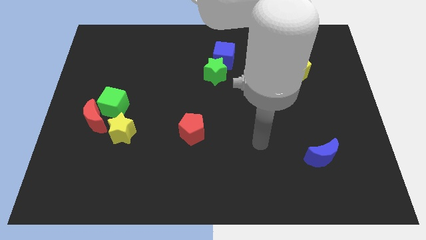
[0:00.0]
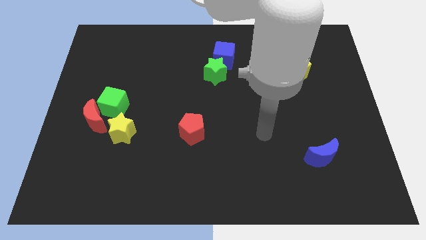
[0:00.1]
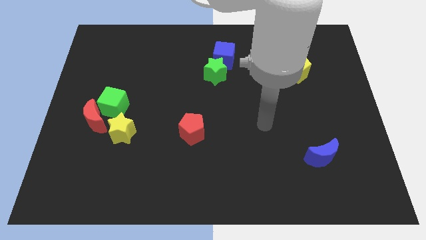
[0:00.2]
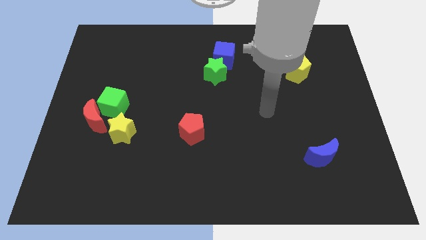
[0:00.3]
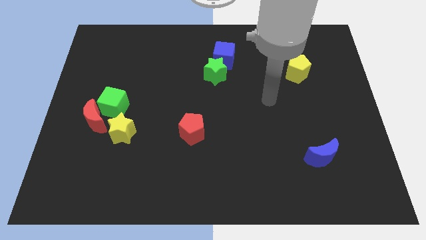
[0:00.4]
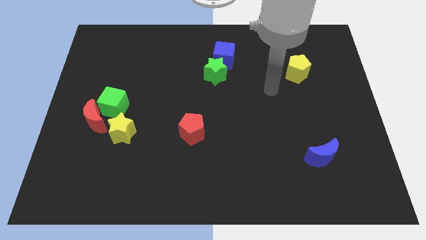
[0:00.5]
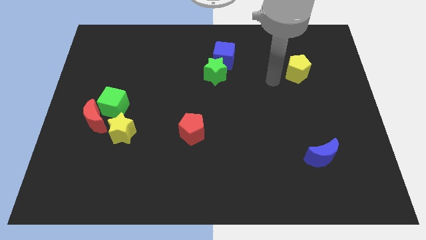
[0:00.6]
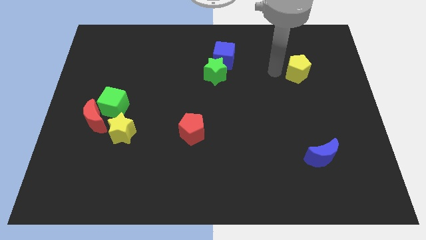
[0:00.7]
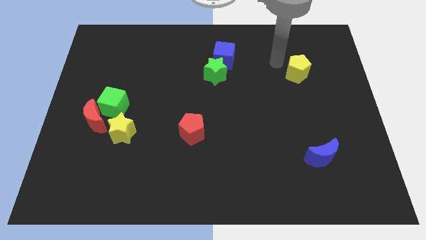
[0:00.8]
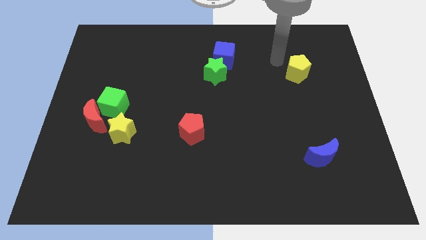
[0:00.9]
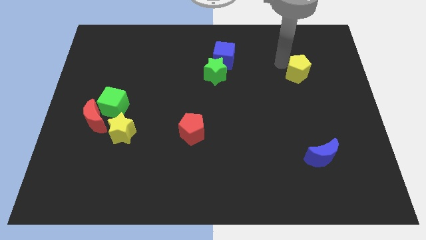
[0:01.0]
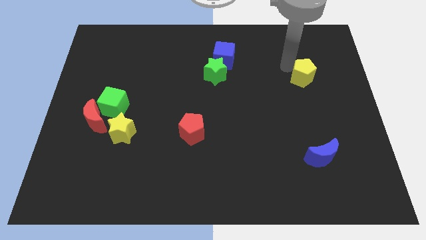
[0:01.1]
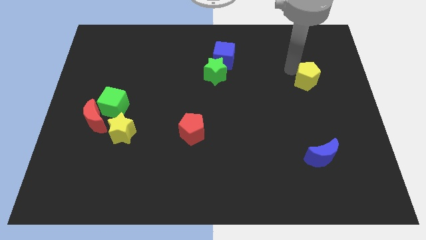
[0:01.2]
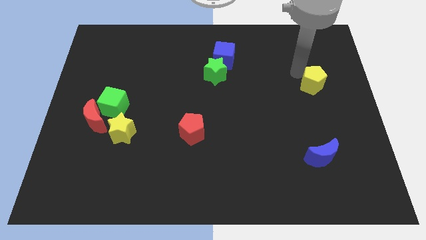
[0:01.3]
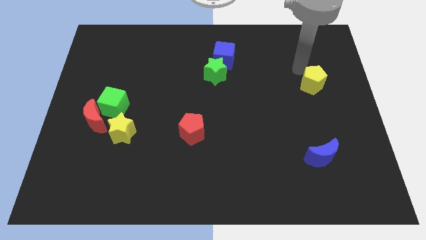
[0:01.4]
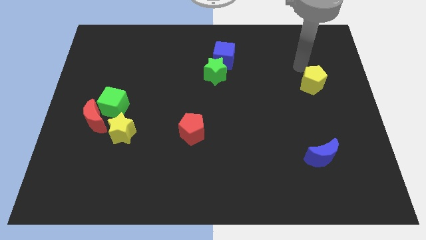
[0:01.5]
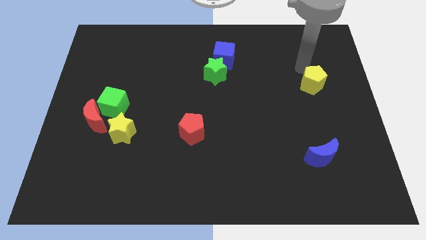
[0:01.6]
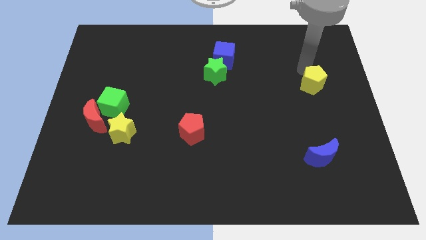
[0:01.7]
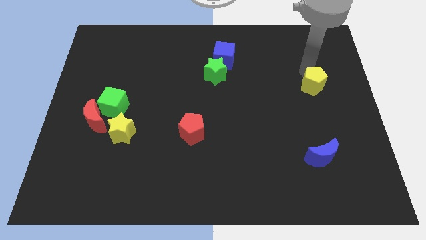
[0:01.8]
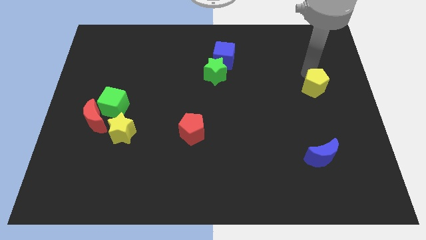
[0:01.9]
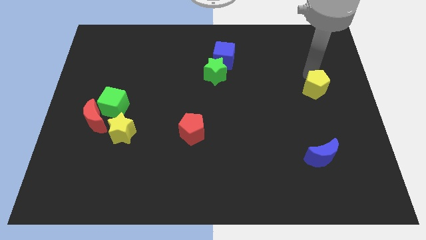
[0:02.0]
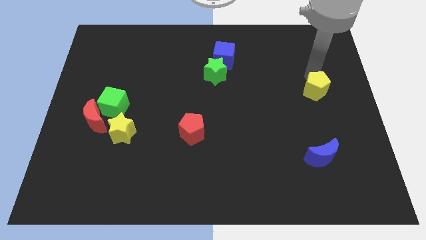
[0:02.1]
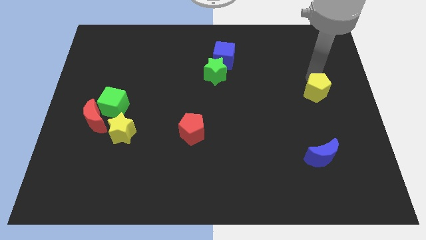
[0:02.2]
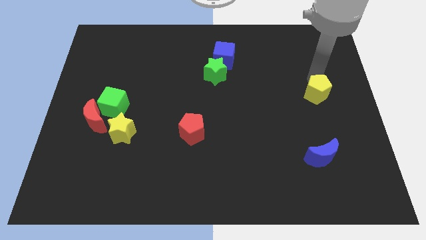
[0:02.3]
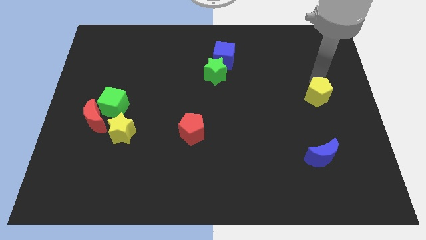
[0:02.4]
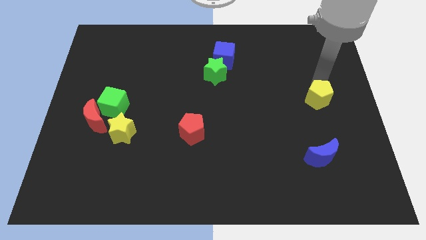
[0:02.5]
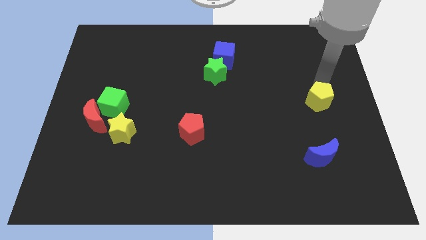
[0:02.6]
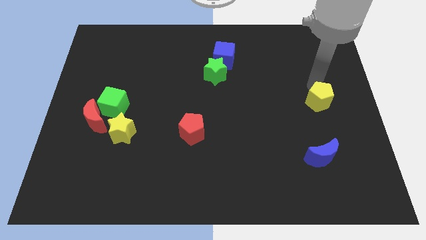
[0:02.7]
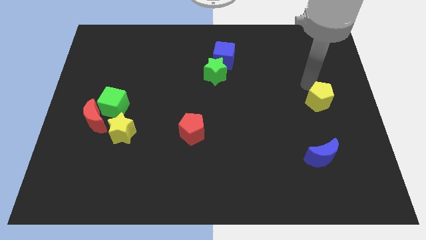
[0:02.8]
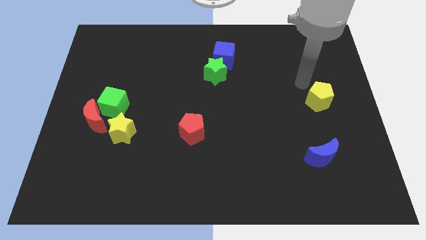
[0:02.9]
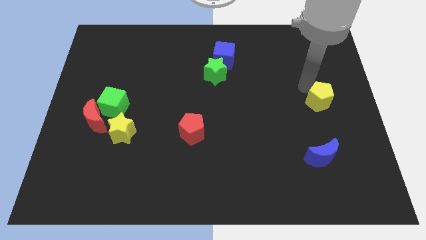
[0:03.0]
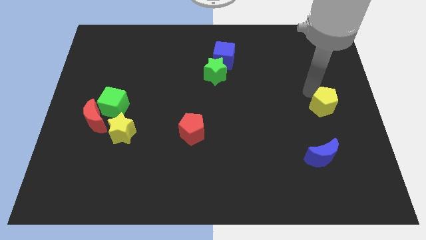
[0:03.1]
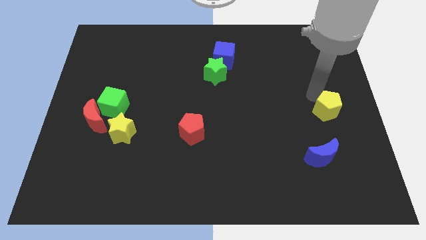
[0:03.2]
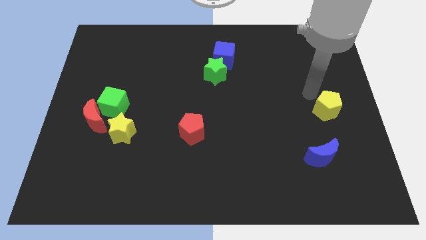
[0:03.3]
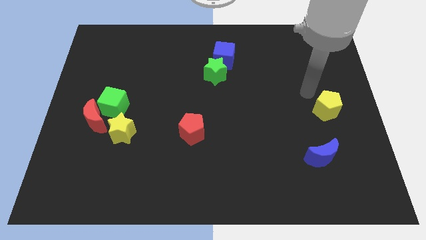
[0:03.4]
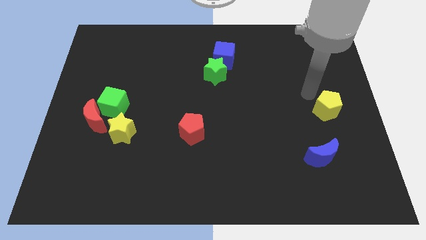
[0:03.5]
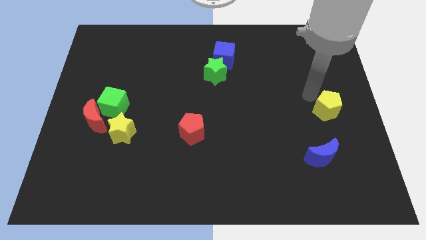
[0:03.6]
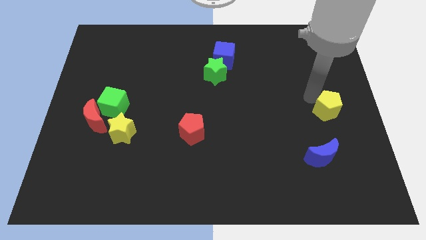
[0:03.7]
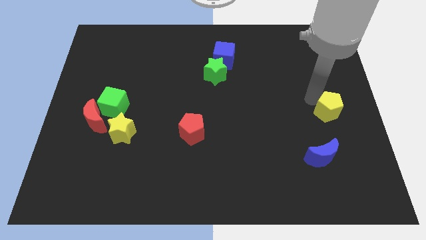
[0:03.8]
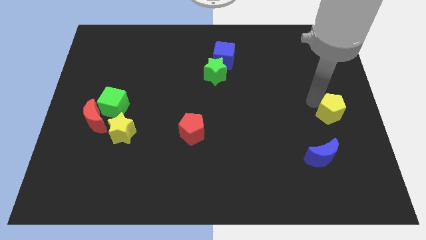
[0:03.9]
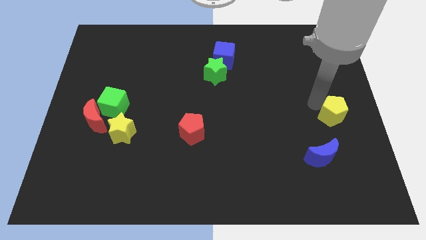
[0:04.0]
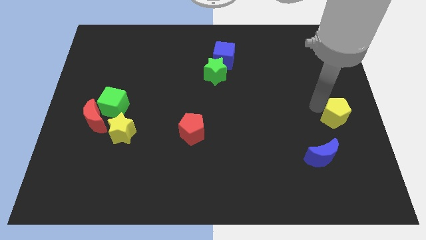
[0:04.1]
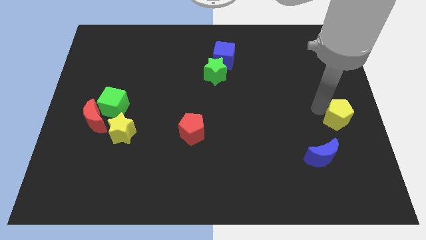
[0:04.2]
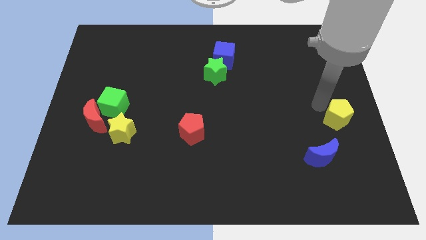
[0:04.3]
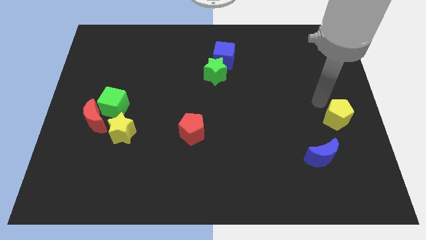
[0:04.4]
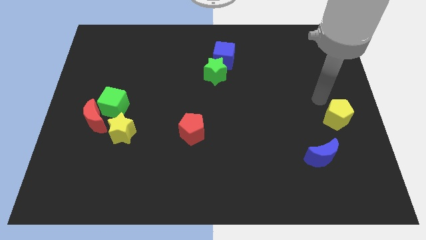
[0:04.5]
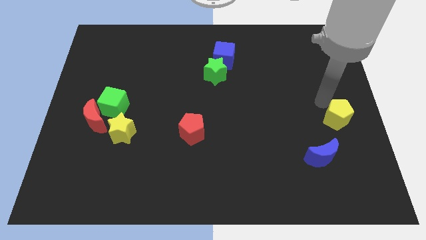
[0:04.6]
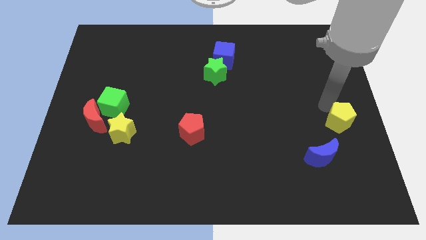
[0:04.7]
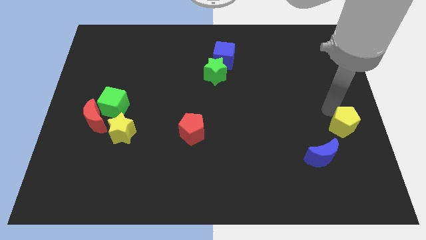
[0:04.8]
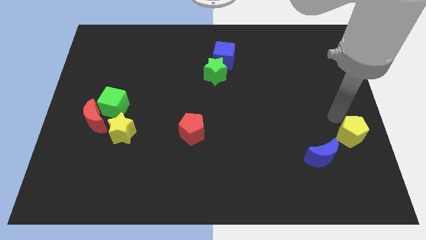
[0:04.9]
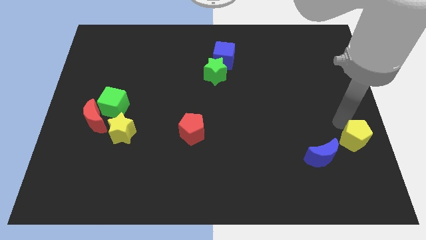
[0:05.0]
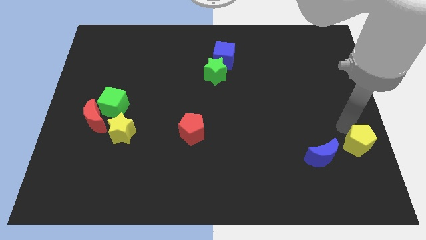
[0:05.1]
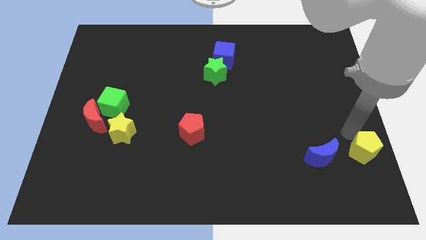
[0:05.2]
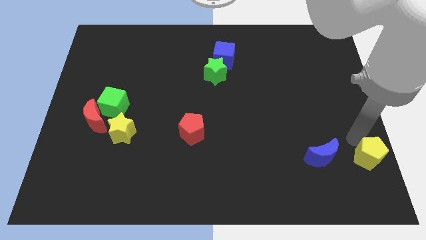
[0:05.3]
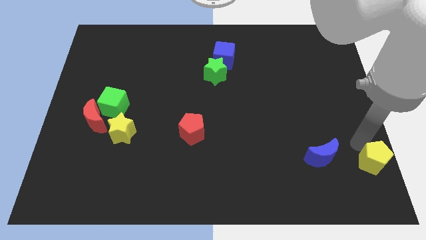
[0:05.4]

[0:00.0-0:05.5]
push the yellow pentagon to the lower right corner
